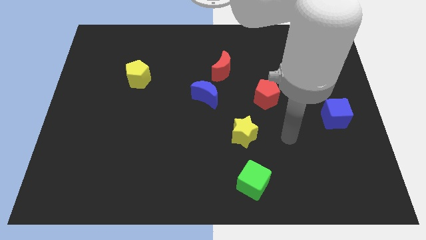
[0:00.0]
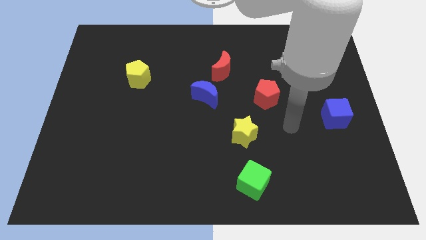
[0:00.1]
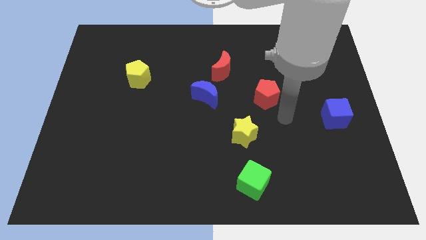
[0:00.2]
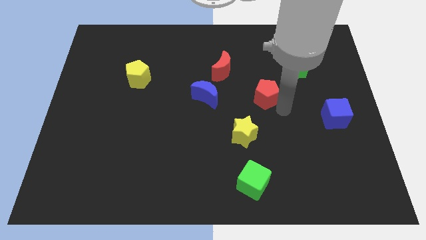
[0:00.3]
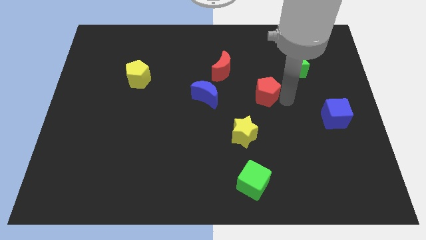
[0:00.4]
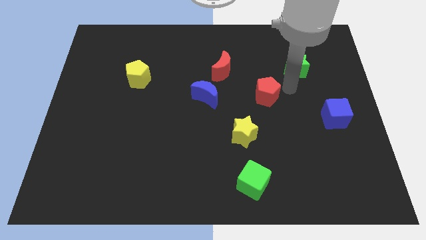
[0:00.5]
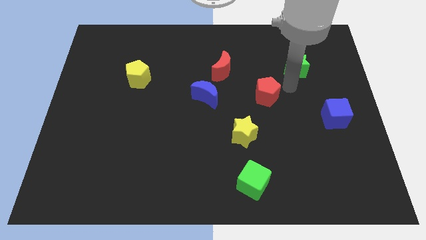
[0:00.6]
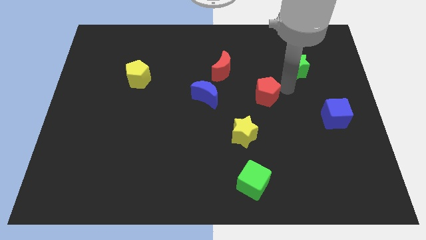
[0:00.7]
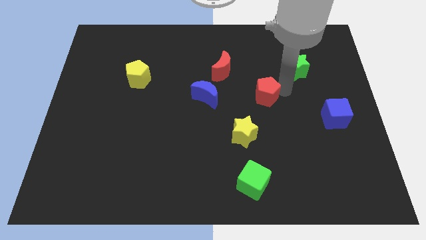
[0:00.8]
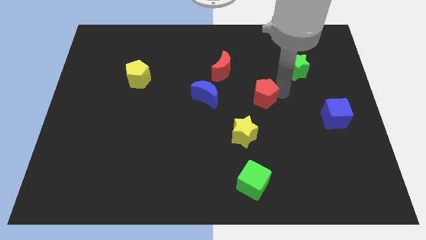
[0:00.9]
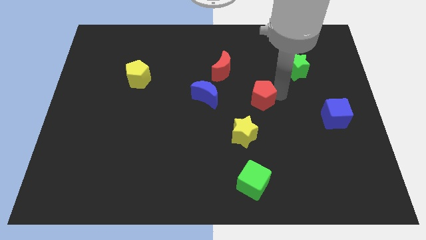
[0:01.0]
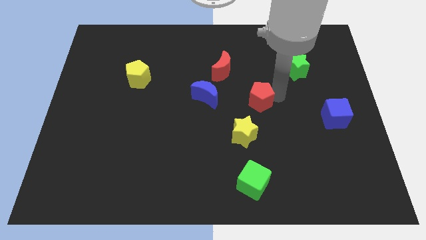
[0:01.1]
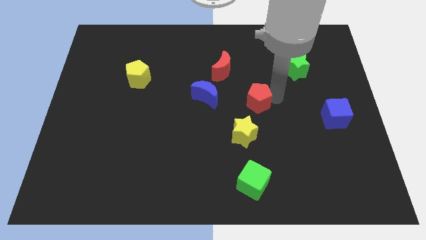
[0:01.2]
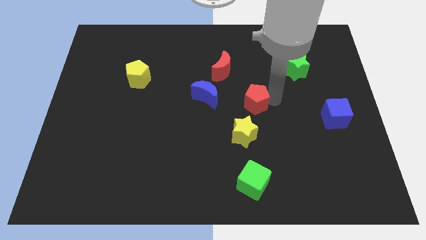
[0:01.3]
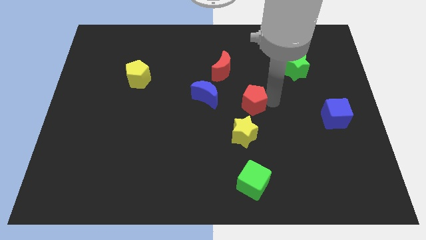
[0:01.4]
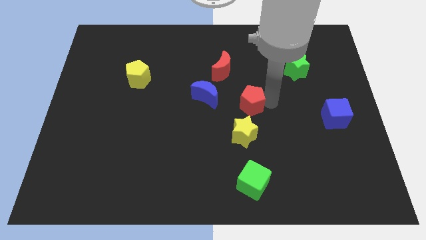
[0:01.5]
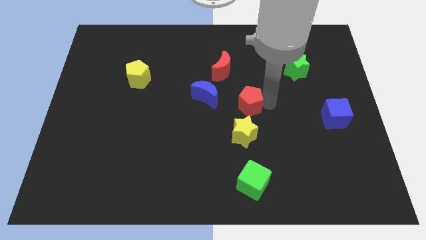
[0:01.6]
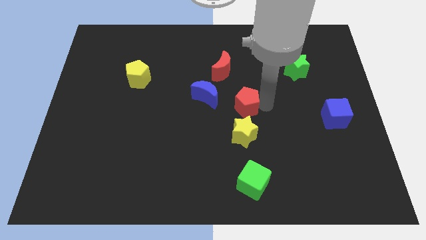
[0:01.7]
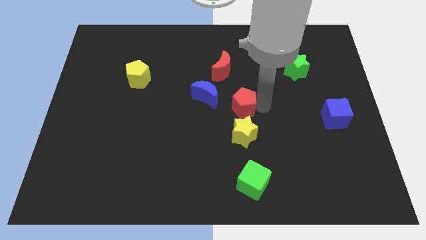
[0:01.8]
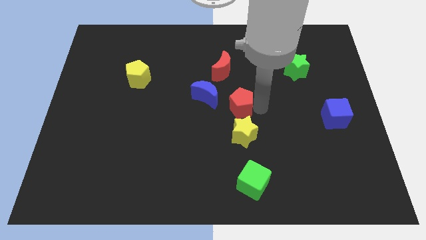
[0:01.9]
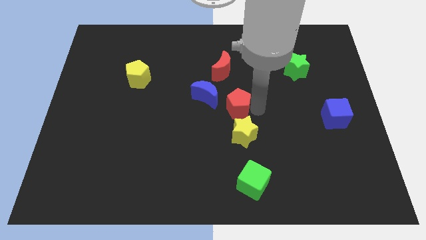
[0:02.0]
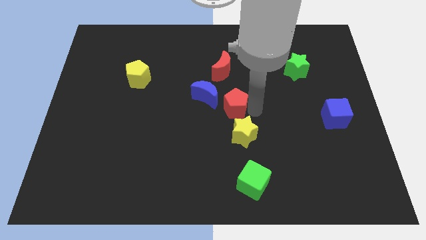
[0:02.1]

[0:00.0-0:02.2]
move the red pentagon left somewhat

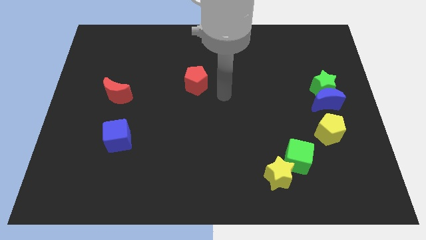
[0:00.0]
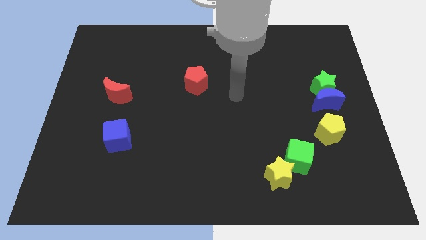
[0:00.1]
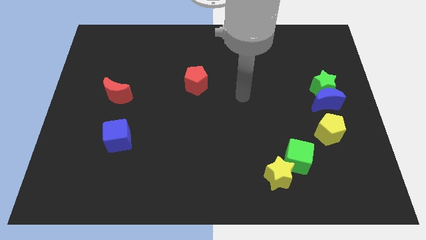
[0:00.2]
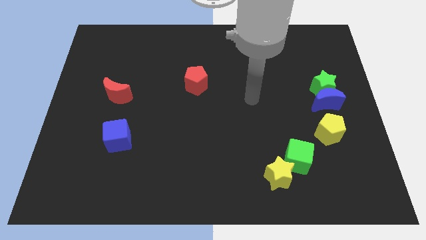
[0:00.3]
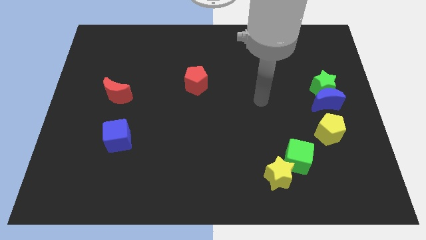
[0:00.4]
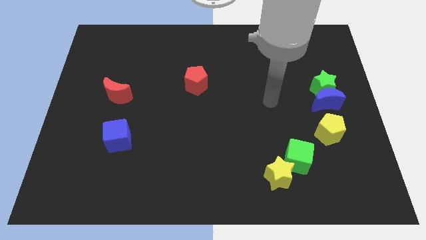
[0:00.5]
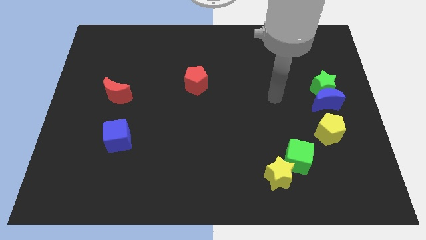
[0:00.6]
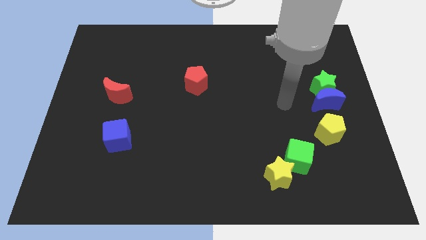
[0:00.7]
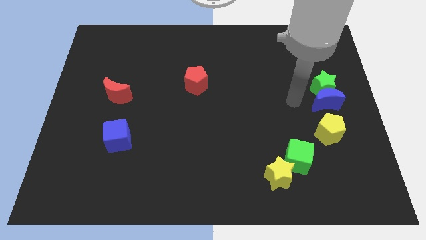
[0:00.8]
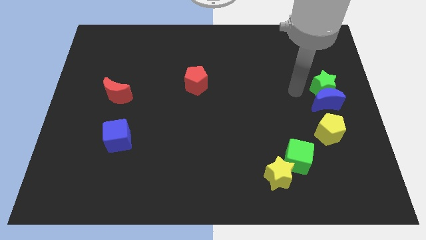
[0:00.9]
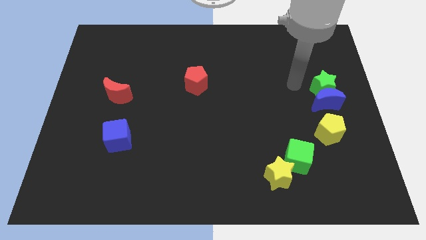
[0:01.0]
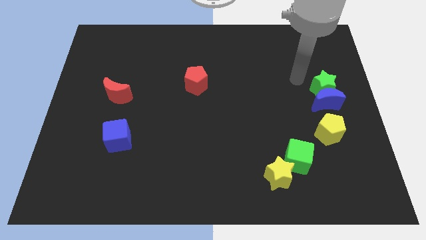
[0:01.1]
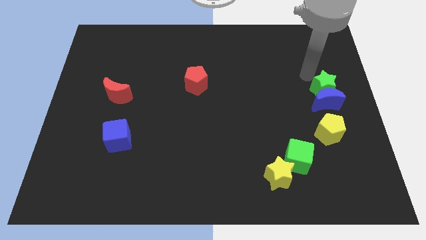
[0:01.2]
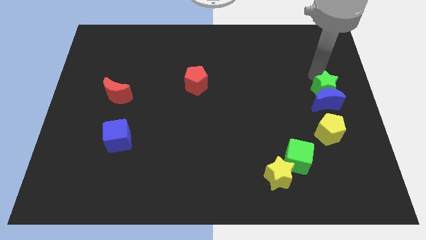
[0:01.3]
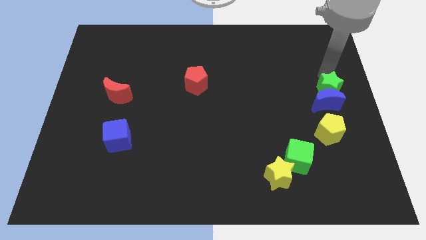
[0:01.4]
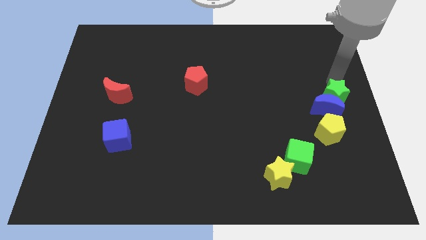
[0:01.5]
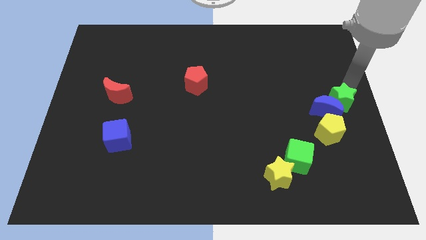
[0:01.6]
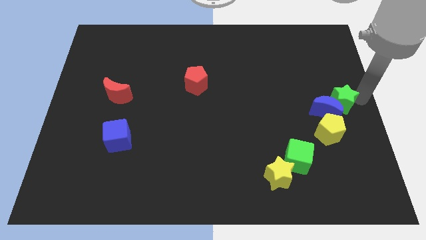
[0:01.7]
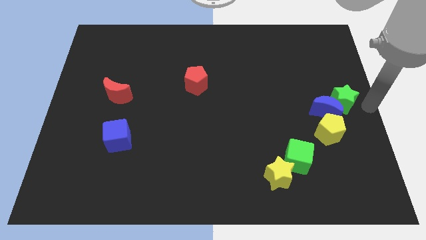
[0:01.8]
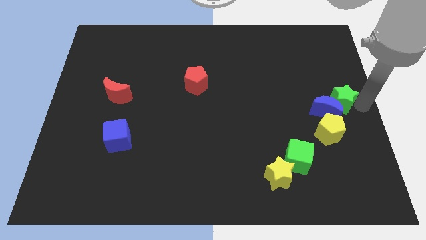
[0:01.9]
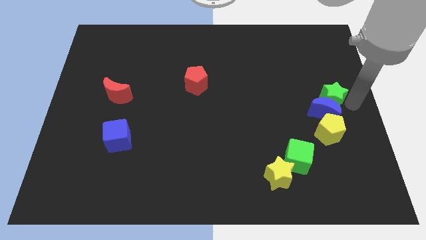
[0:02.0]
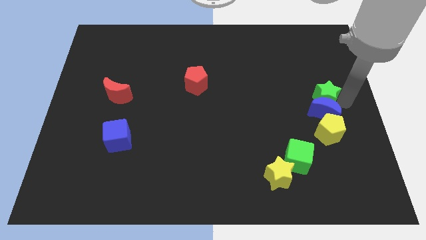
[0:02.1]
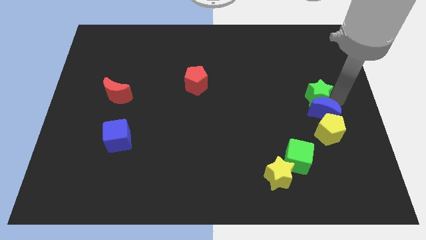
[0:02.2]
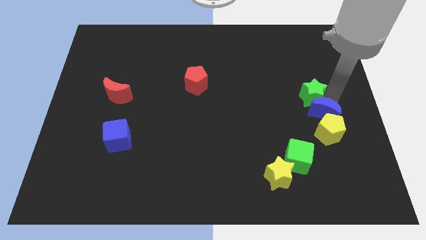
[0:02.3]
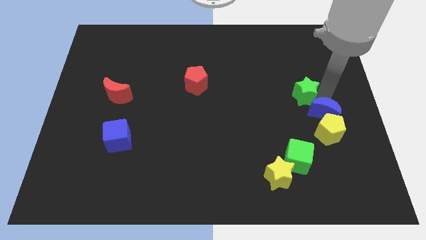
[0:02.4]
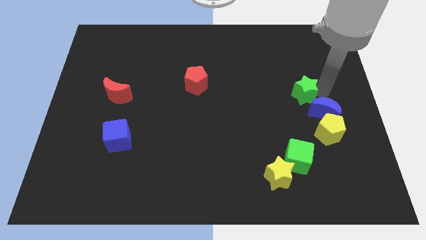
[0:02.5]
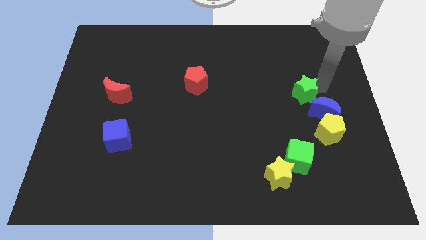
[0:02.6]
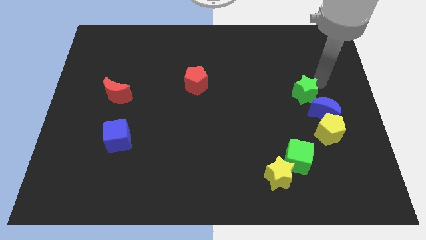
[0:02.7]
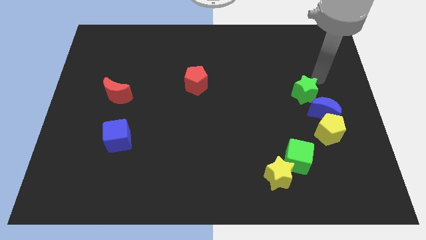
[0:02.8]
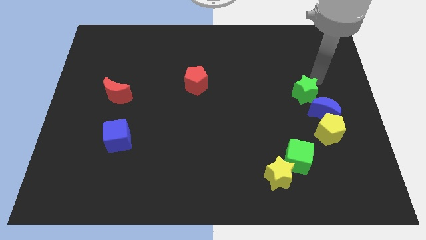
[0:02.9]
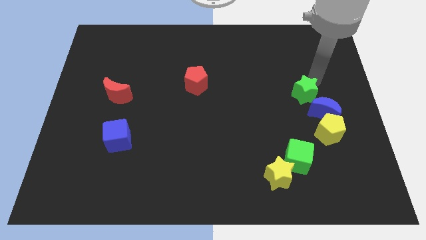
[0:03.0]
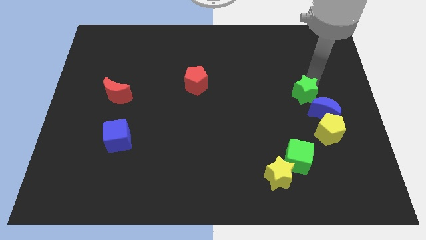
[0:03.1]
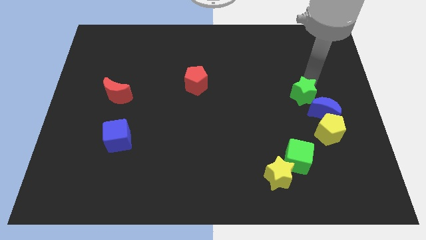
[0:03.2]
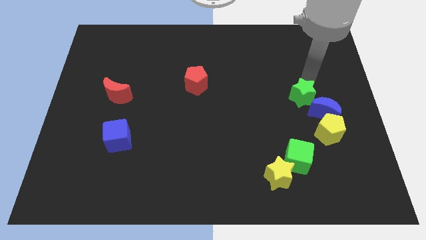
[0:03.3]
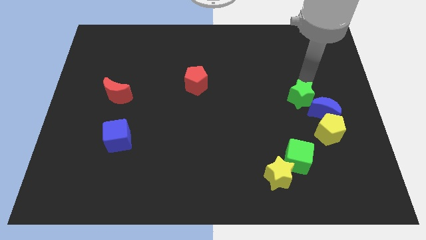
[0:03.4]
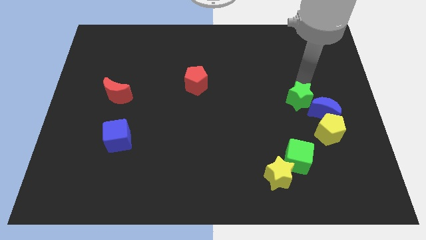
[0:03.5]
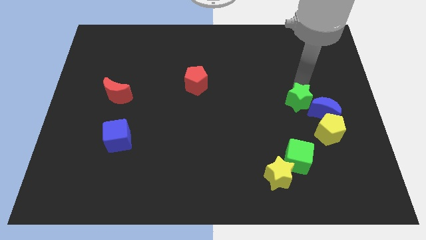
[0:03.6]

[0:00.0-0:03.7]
slide the green star down and then to the left a little

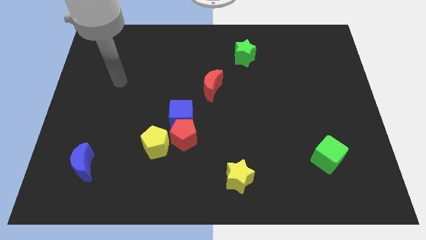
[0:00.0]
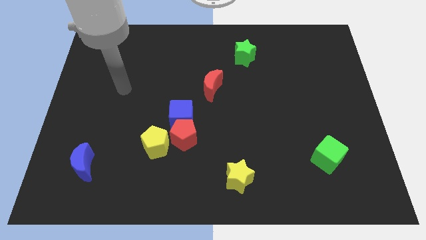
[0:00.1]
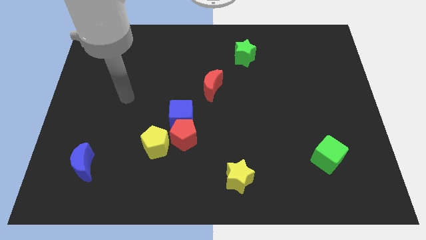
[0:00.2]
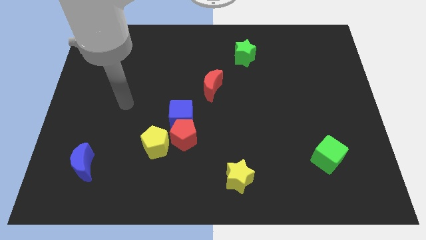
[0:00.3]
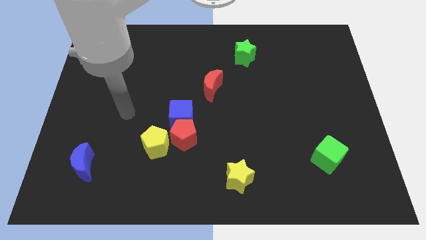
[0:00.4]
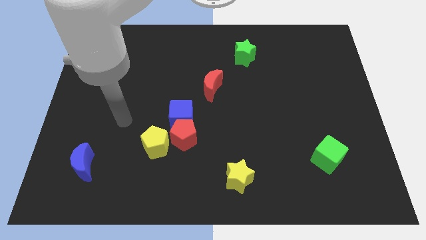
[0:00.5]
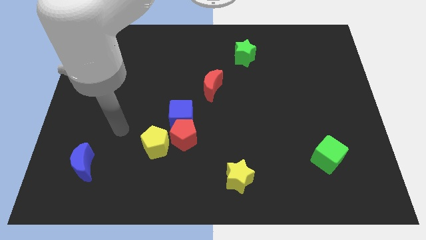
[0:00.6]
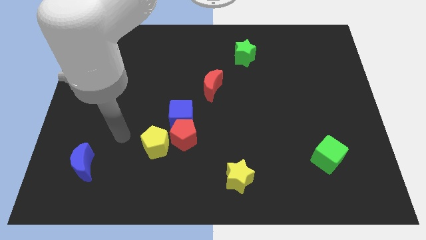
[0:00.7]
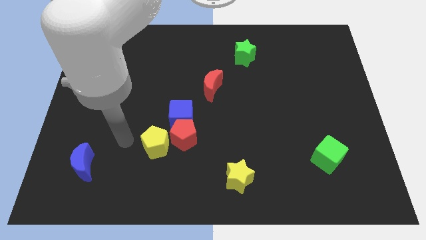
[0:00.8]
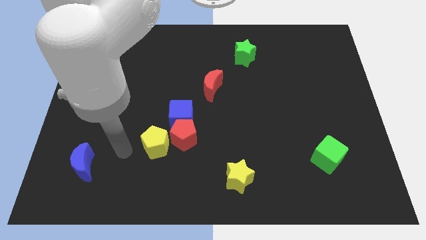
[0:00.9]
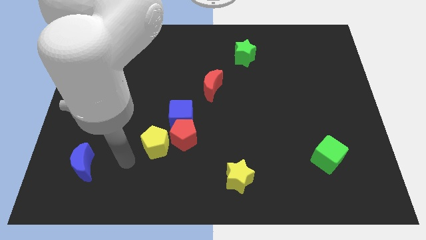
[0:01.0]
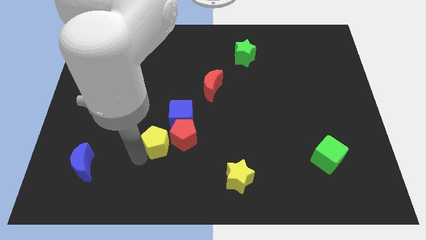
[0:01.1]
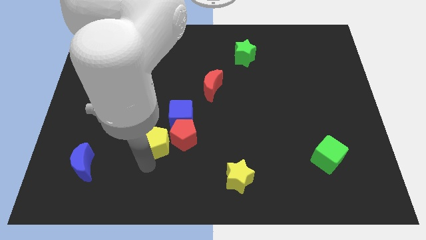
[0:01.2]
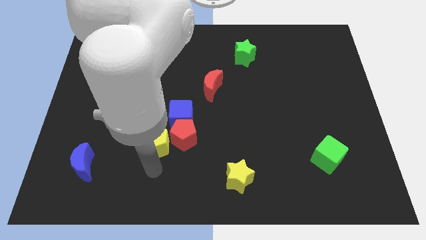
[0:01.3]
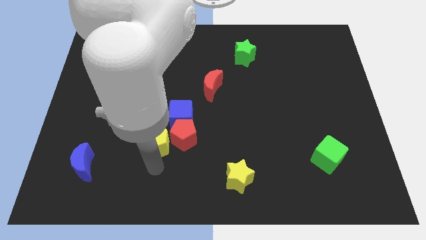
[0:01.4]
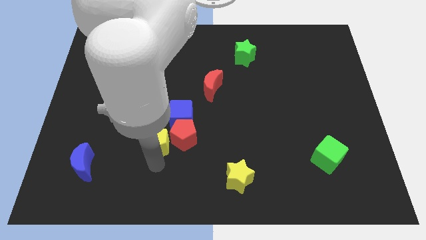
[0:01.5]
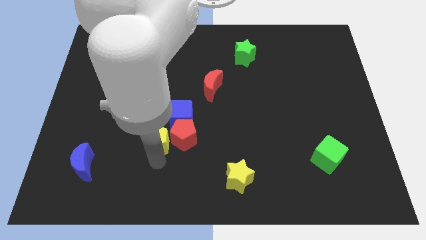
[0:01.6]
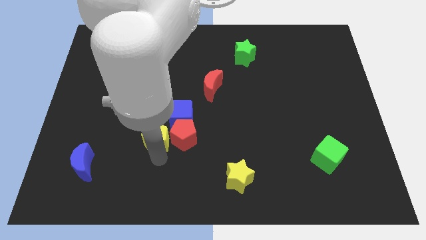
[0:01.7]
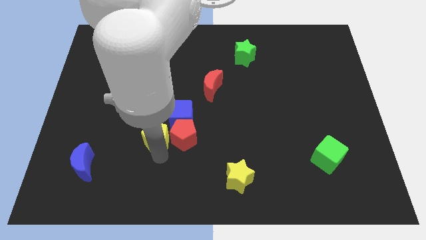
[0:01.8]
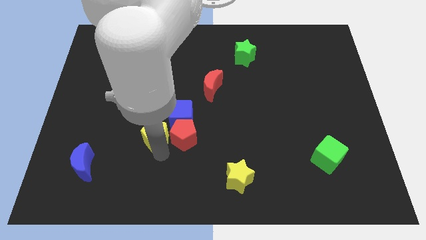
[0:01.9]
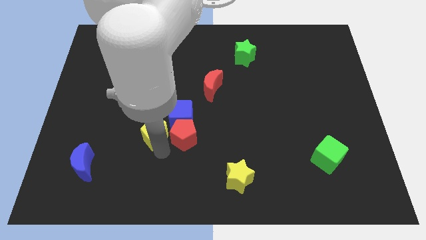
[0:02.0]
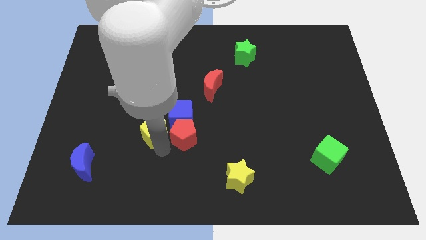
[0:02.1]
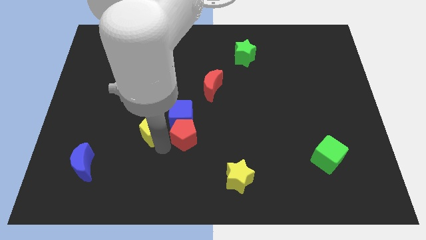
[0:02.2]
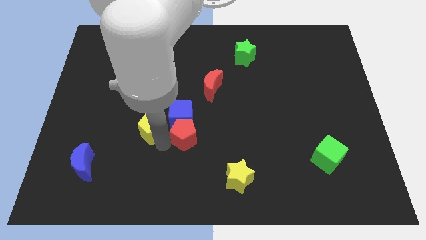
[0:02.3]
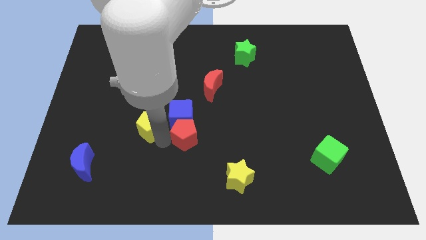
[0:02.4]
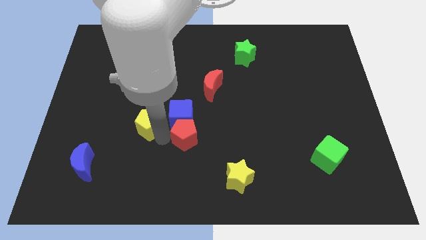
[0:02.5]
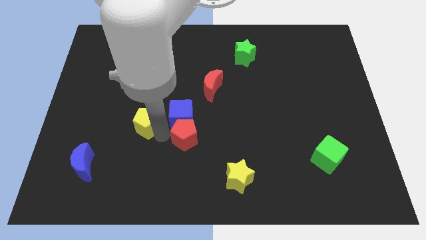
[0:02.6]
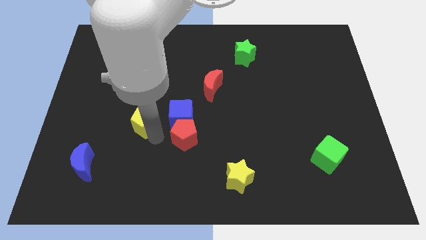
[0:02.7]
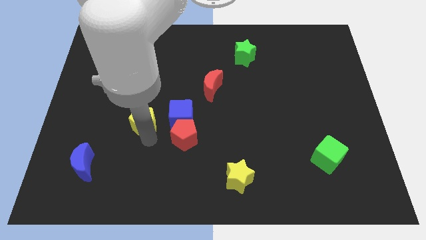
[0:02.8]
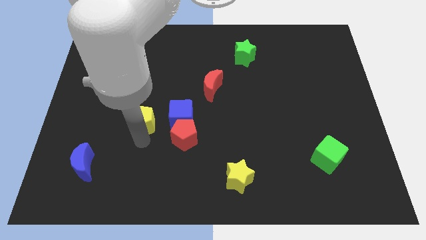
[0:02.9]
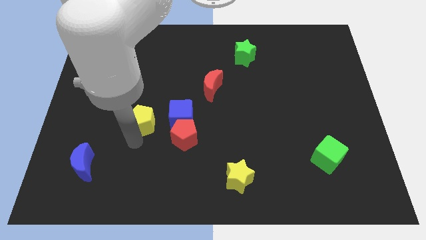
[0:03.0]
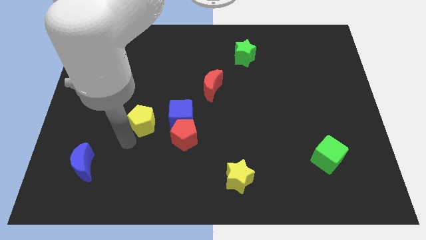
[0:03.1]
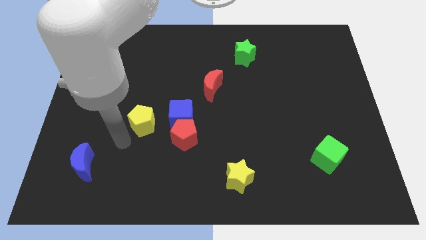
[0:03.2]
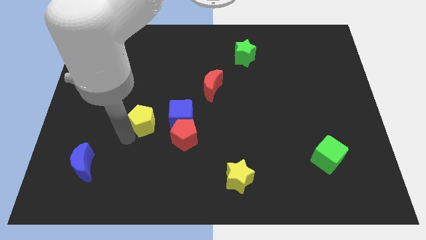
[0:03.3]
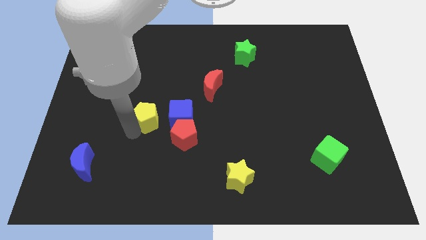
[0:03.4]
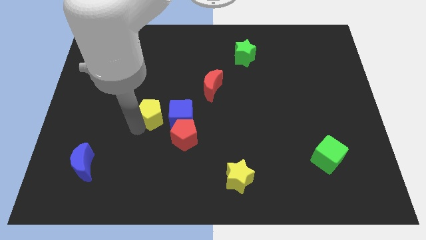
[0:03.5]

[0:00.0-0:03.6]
push the yellow pentagon a little upwards
